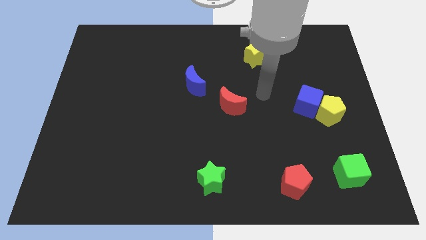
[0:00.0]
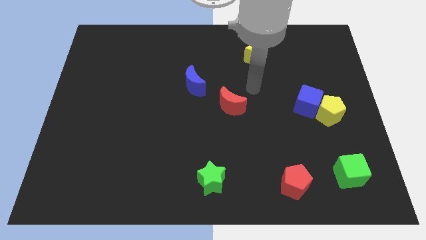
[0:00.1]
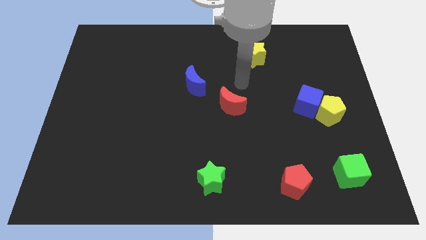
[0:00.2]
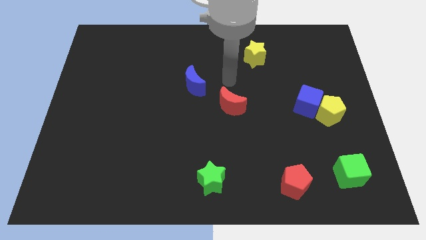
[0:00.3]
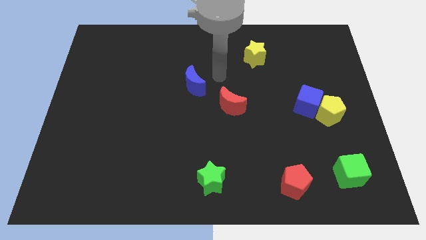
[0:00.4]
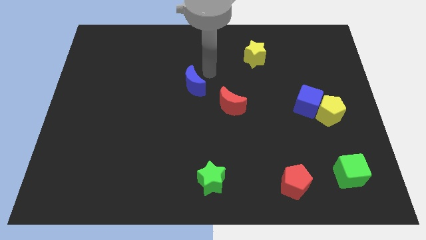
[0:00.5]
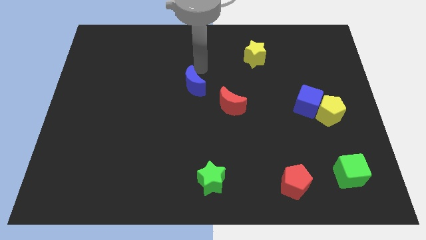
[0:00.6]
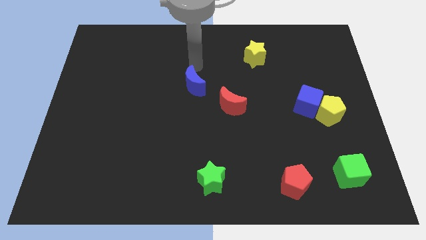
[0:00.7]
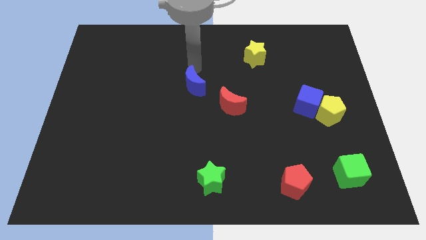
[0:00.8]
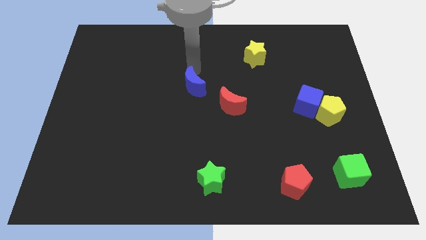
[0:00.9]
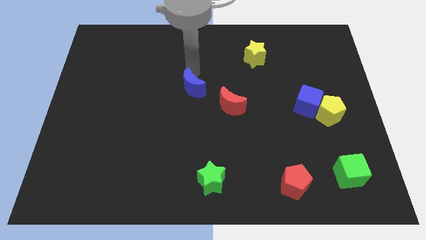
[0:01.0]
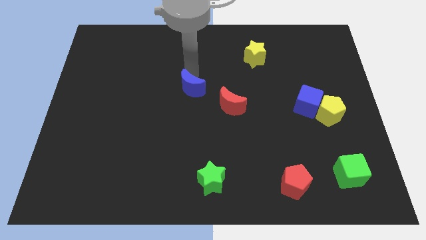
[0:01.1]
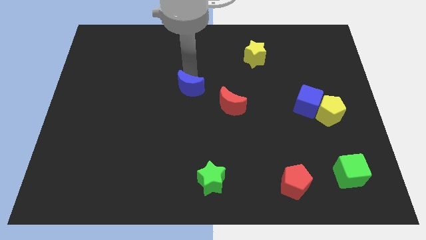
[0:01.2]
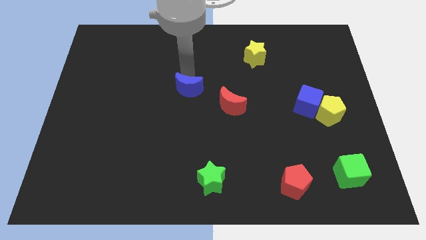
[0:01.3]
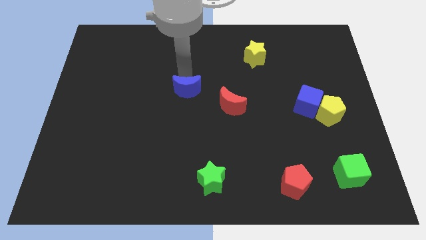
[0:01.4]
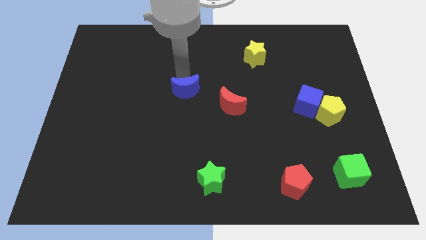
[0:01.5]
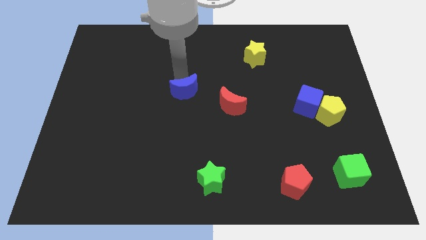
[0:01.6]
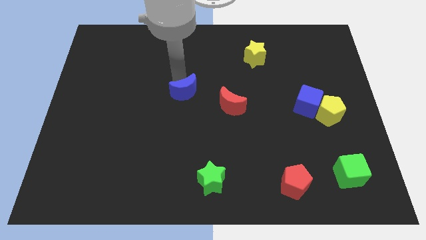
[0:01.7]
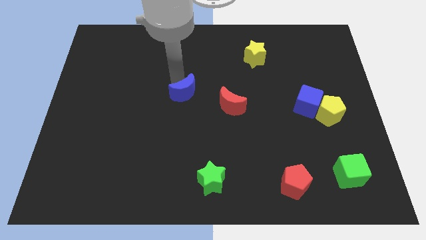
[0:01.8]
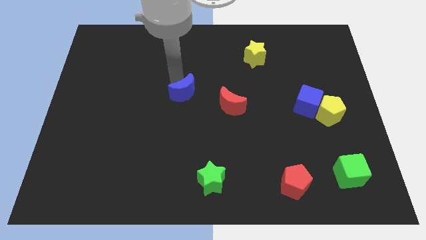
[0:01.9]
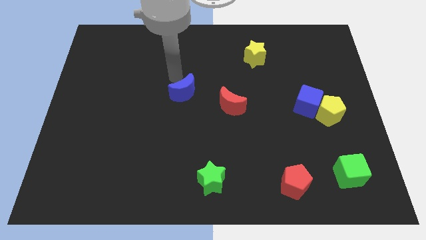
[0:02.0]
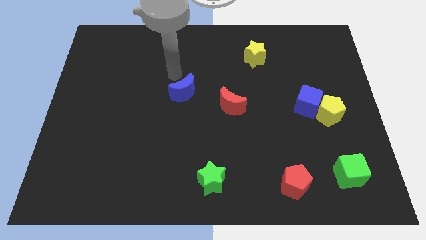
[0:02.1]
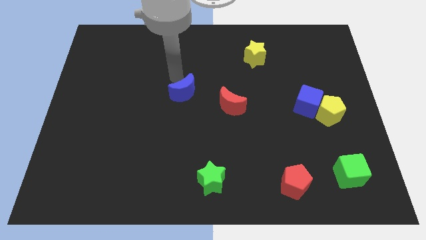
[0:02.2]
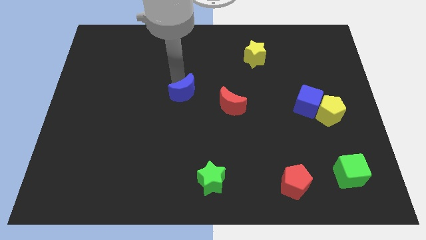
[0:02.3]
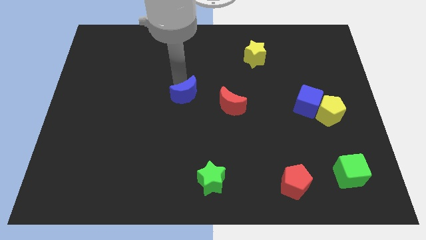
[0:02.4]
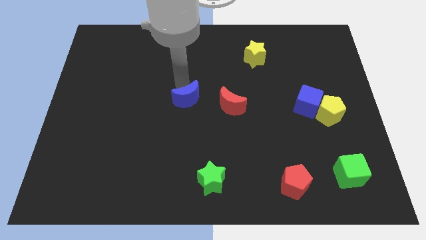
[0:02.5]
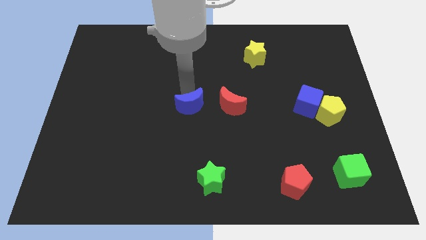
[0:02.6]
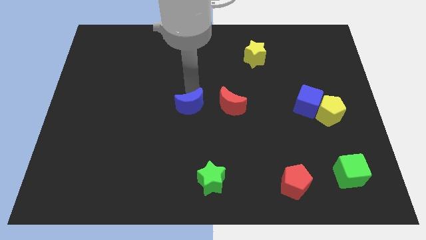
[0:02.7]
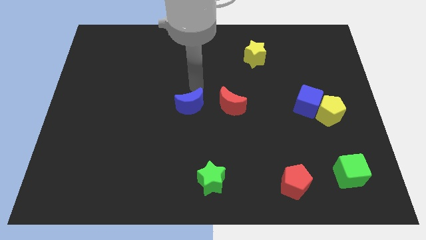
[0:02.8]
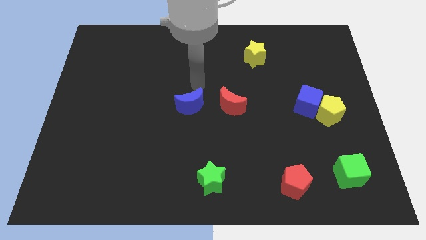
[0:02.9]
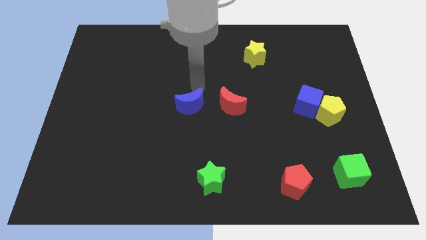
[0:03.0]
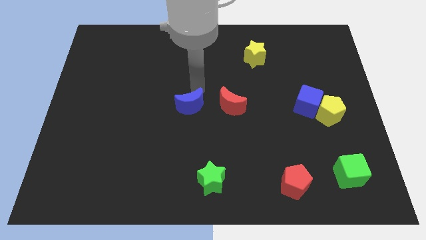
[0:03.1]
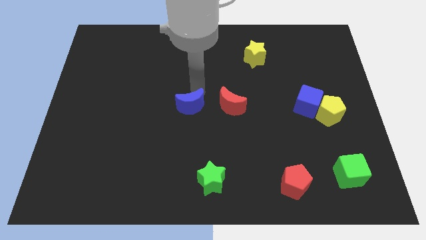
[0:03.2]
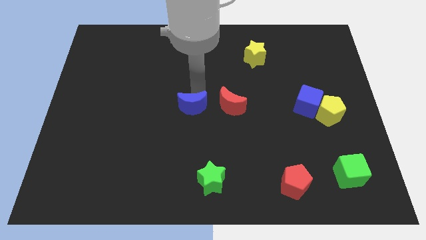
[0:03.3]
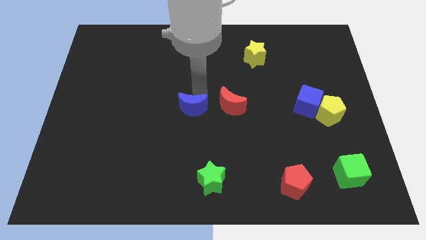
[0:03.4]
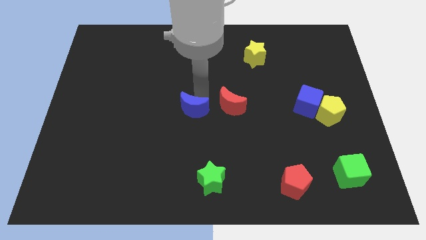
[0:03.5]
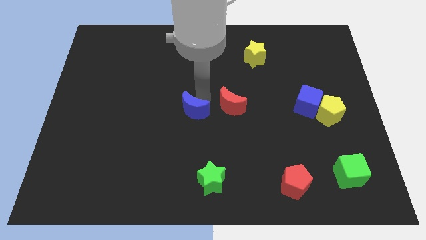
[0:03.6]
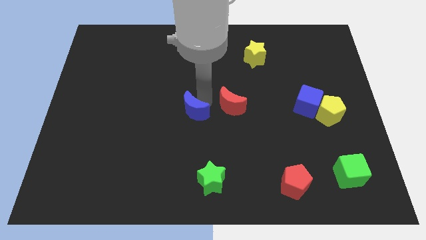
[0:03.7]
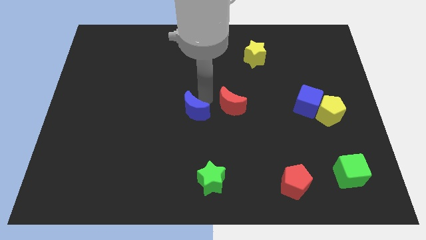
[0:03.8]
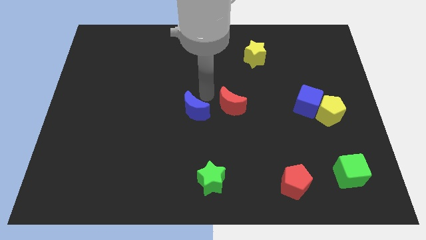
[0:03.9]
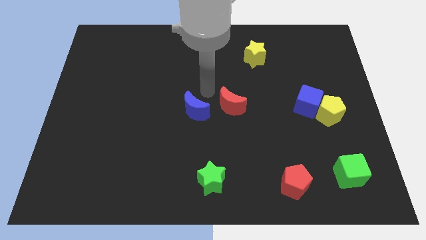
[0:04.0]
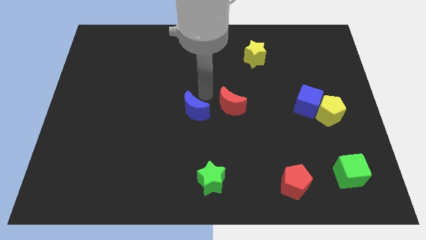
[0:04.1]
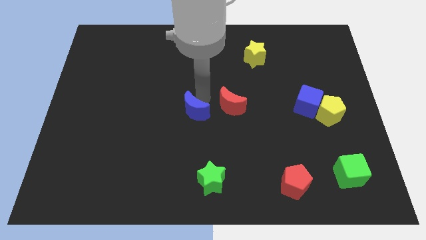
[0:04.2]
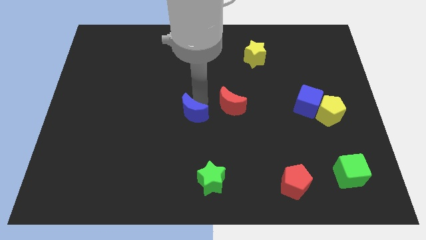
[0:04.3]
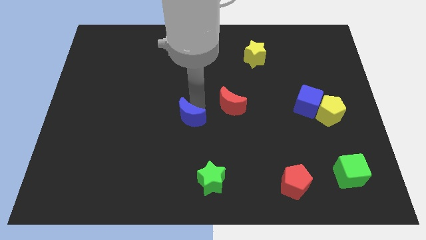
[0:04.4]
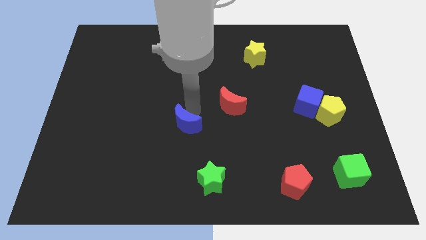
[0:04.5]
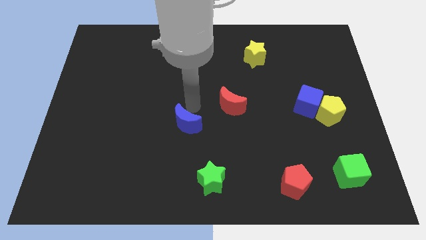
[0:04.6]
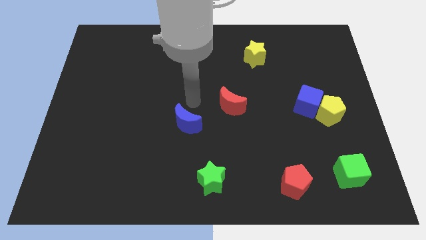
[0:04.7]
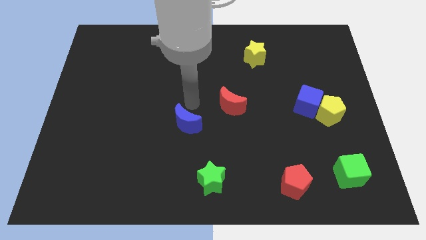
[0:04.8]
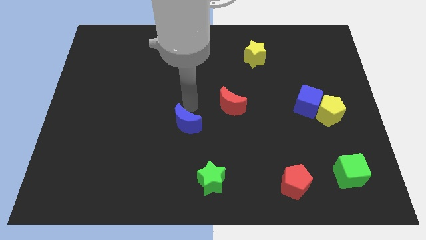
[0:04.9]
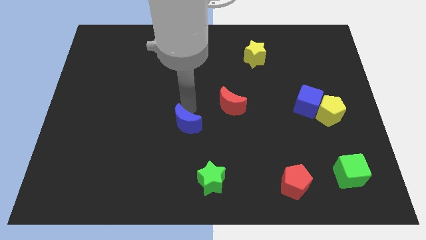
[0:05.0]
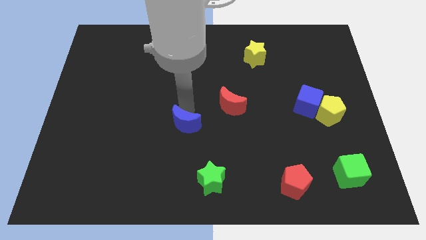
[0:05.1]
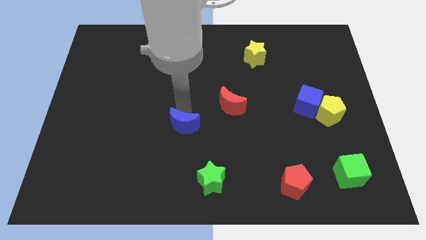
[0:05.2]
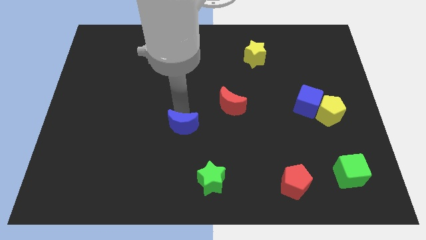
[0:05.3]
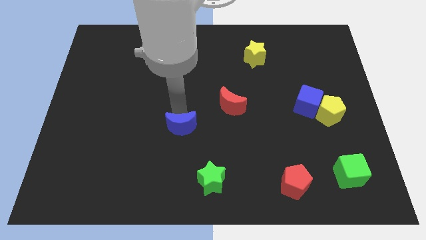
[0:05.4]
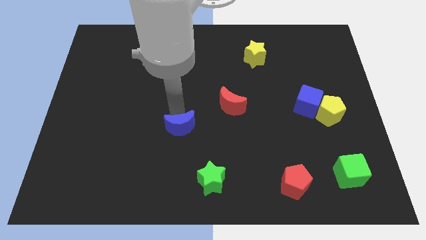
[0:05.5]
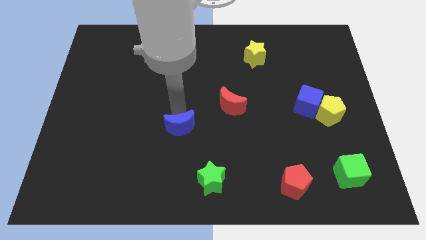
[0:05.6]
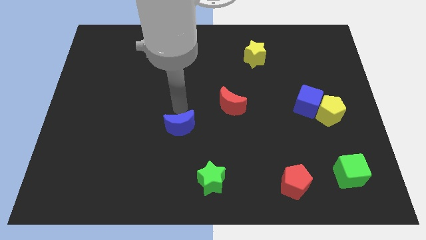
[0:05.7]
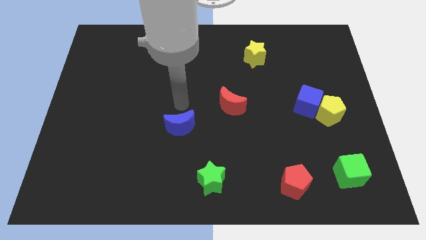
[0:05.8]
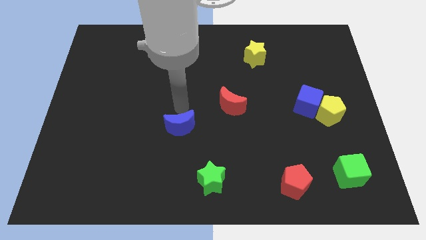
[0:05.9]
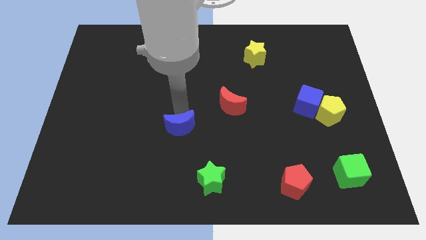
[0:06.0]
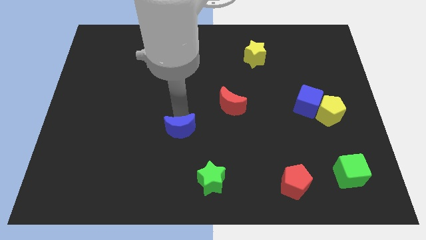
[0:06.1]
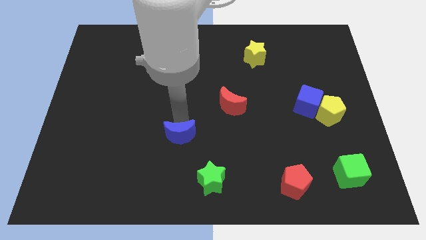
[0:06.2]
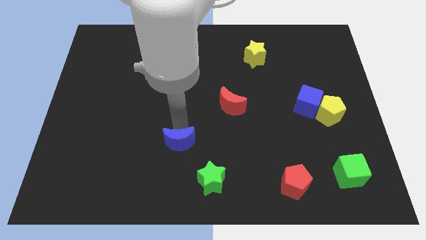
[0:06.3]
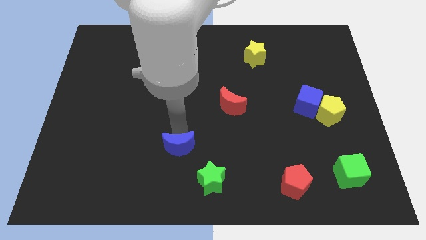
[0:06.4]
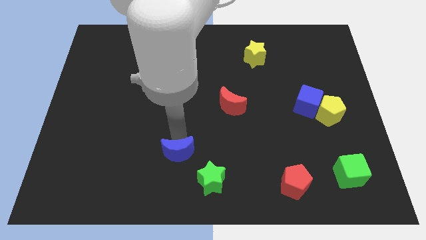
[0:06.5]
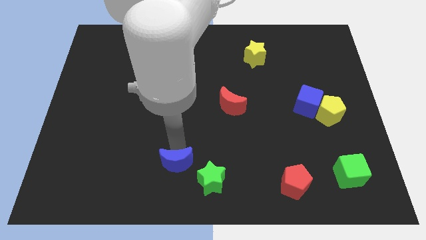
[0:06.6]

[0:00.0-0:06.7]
put the blue moon to the bottom
